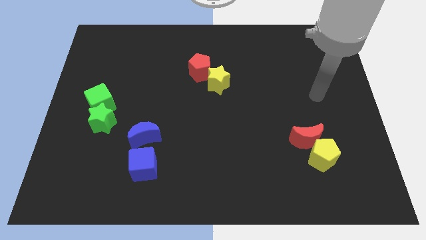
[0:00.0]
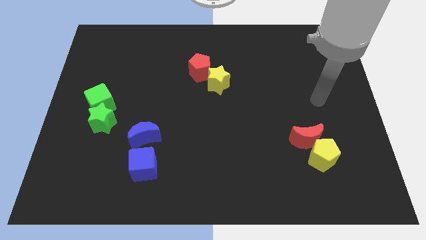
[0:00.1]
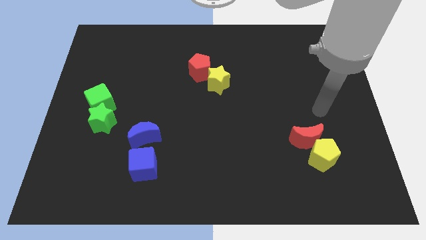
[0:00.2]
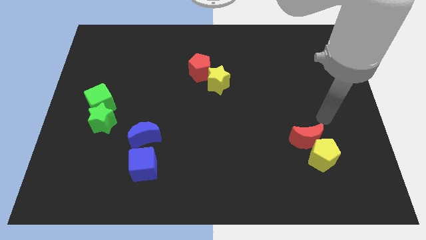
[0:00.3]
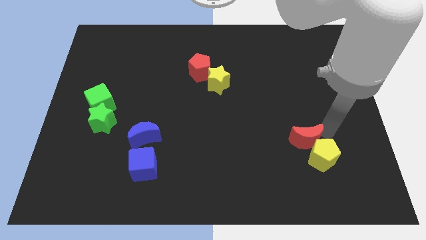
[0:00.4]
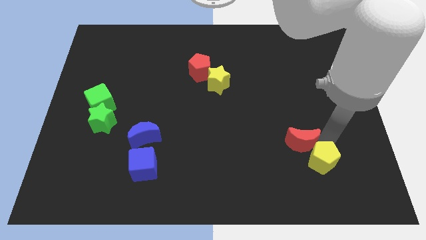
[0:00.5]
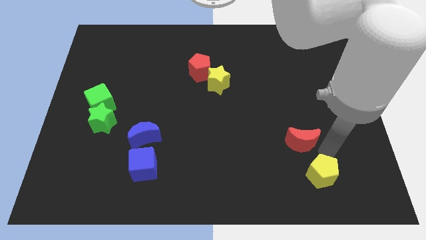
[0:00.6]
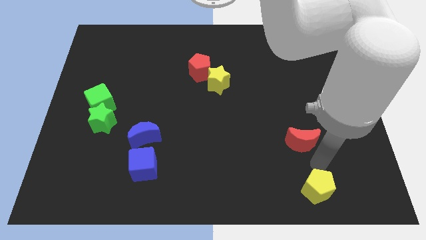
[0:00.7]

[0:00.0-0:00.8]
separate the red moon from the yellow pentagon

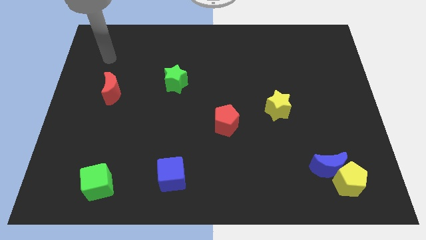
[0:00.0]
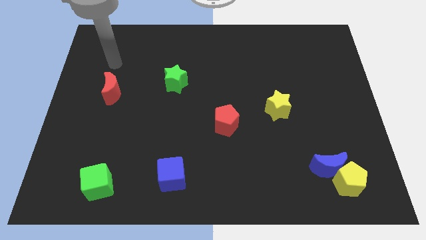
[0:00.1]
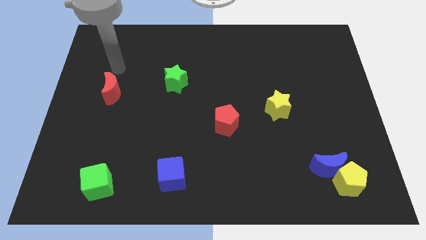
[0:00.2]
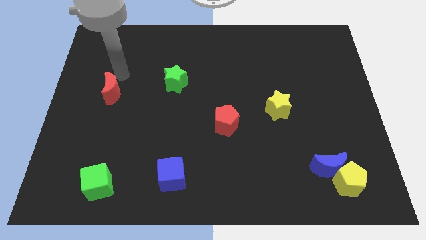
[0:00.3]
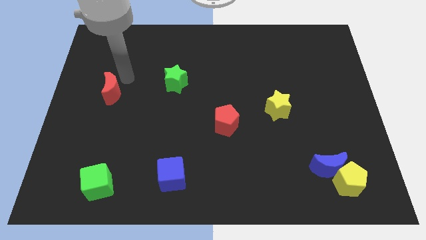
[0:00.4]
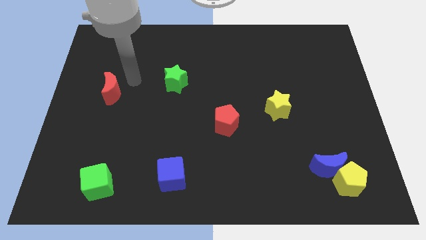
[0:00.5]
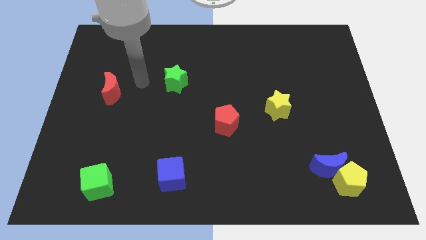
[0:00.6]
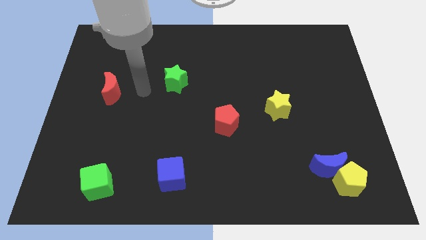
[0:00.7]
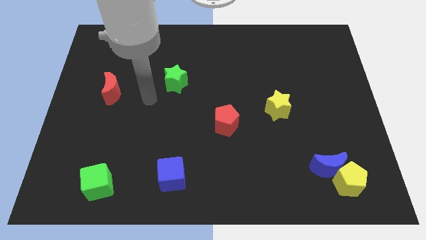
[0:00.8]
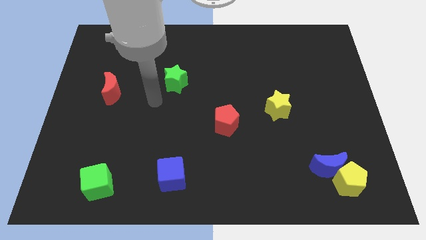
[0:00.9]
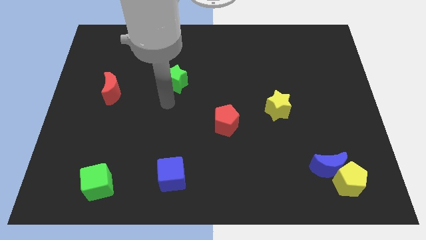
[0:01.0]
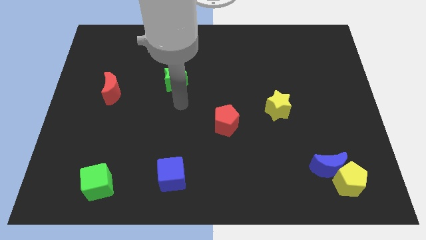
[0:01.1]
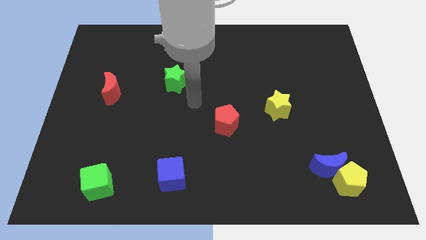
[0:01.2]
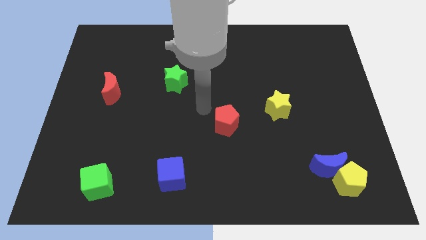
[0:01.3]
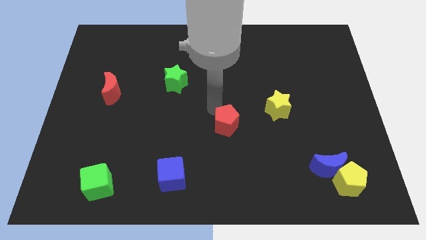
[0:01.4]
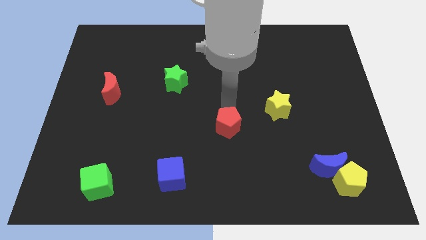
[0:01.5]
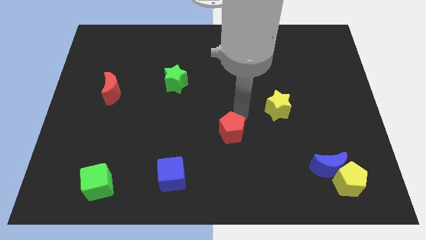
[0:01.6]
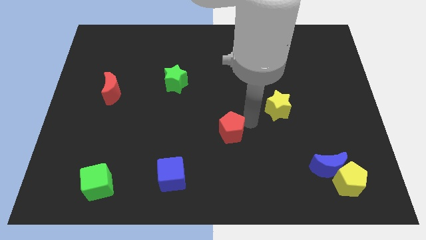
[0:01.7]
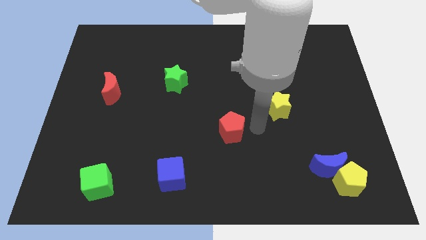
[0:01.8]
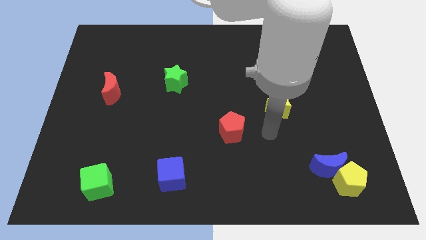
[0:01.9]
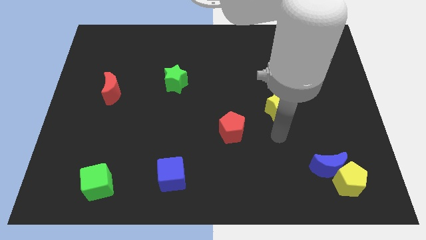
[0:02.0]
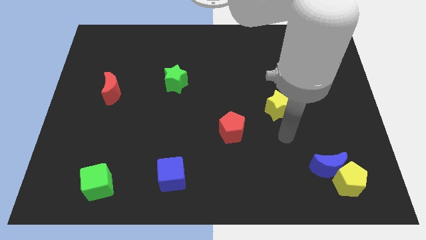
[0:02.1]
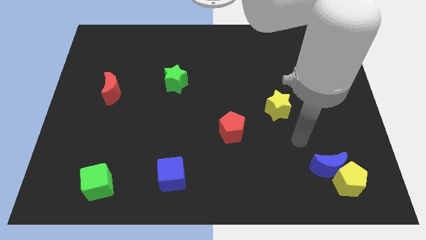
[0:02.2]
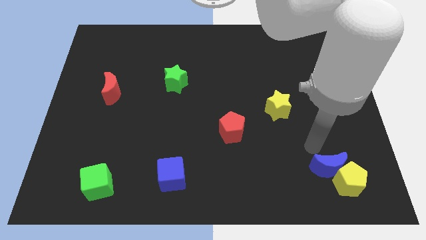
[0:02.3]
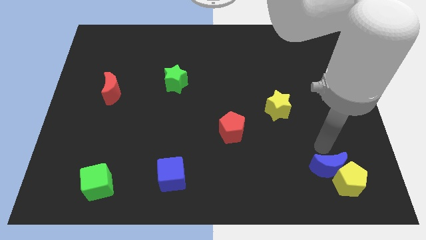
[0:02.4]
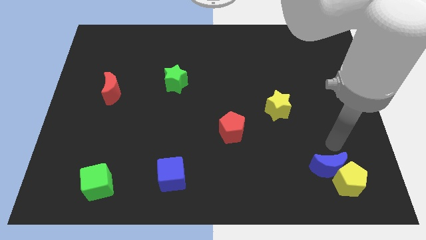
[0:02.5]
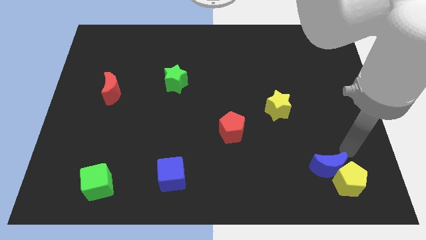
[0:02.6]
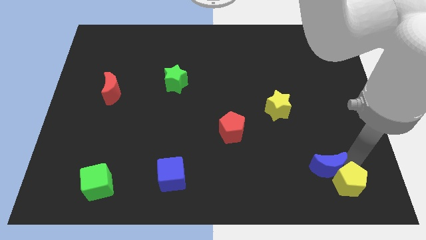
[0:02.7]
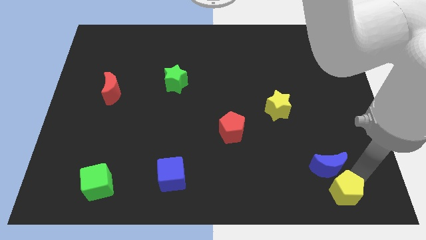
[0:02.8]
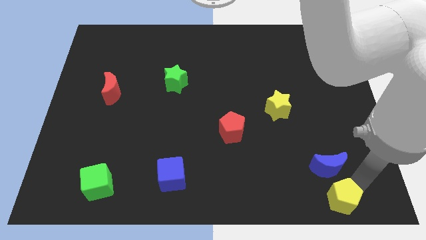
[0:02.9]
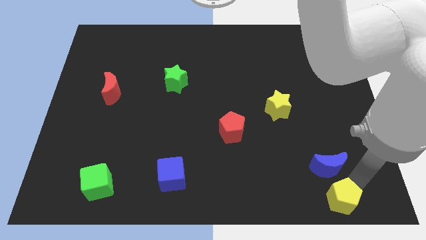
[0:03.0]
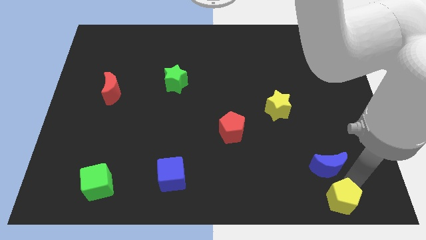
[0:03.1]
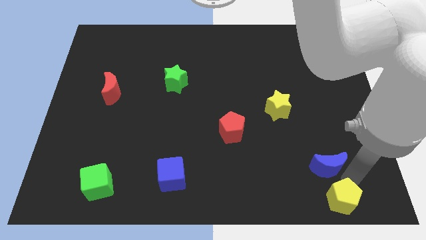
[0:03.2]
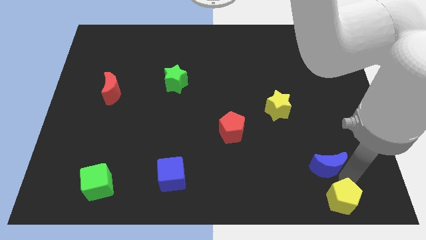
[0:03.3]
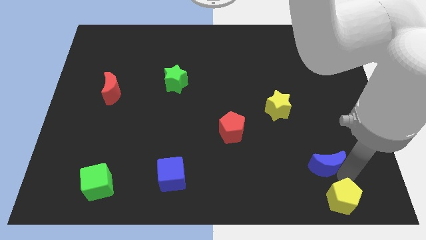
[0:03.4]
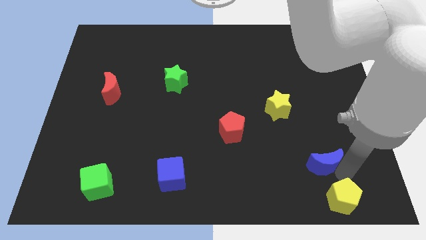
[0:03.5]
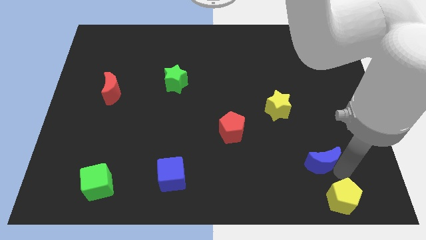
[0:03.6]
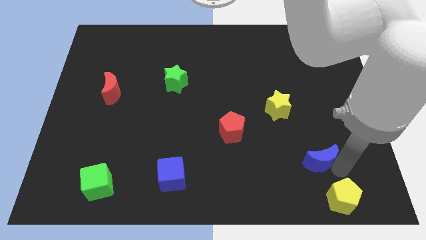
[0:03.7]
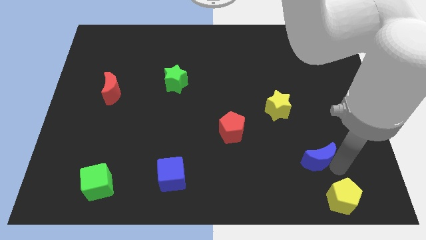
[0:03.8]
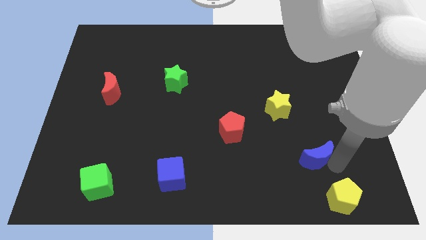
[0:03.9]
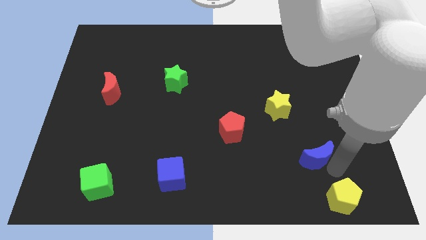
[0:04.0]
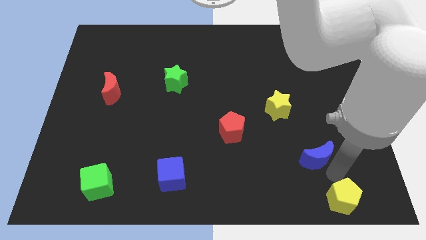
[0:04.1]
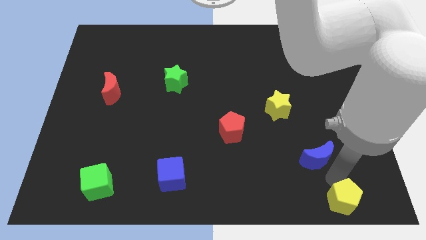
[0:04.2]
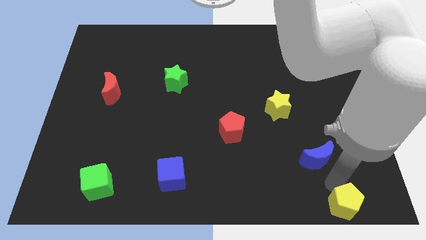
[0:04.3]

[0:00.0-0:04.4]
pull the blue moon apart from the yellow pentagon

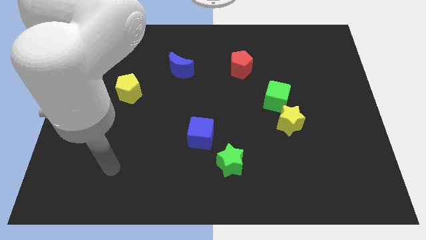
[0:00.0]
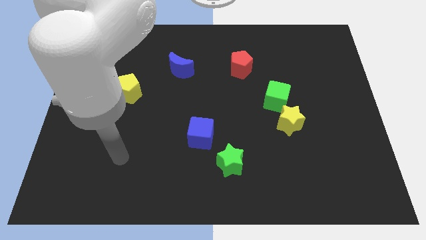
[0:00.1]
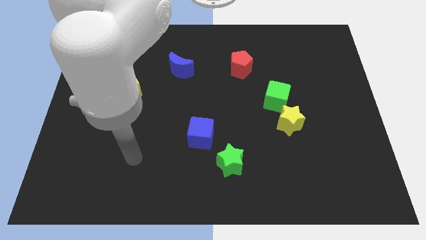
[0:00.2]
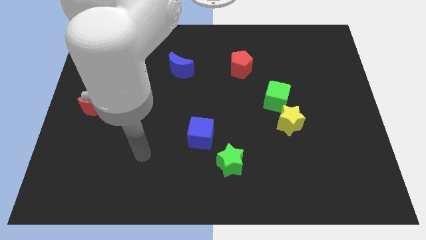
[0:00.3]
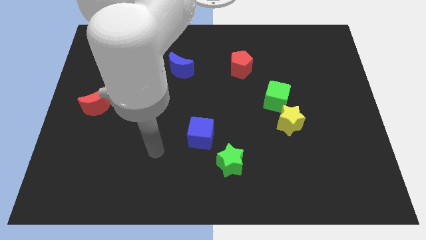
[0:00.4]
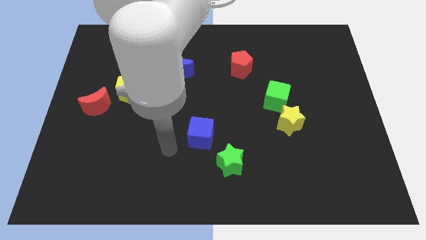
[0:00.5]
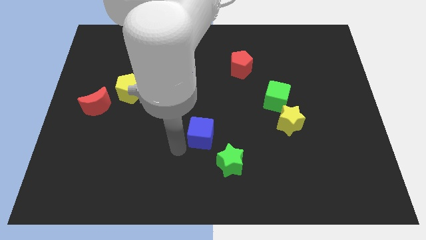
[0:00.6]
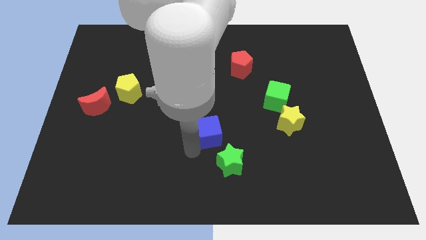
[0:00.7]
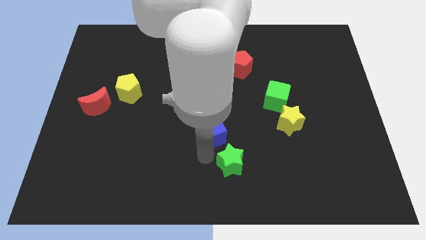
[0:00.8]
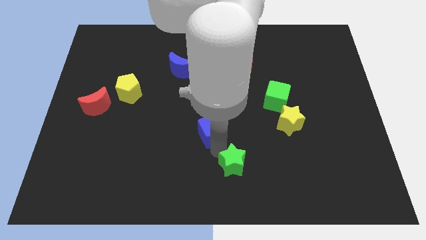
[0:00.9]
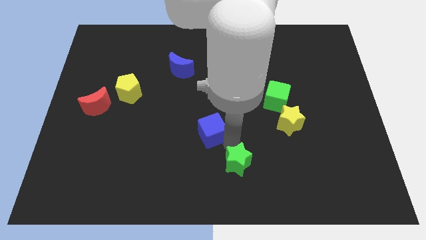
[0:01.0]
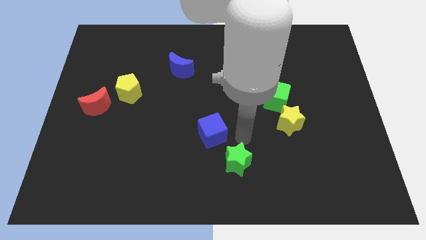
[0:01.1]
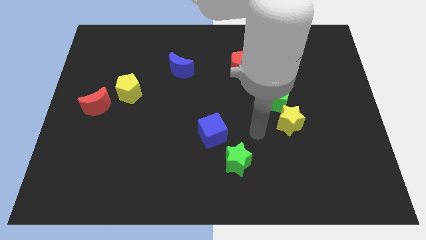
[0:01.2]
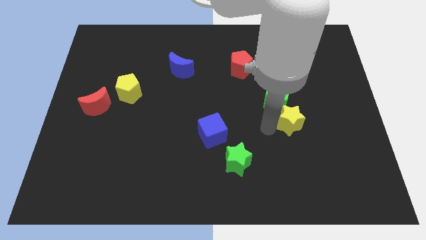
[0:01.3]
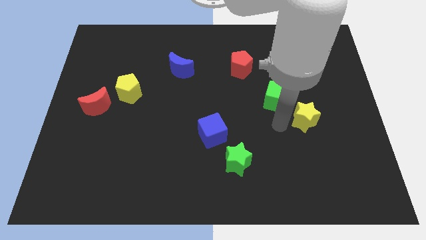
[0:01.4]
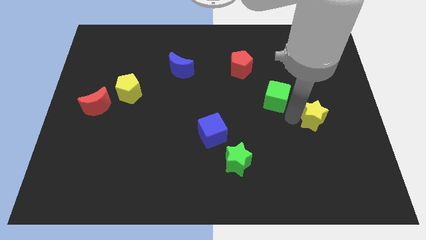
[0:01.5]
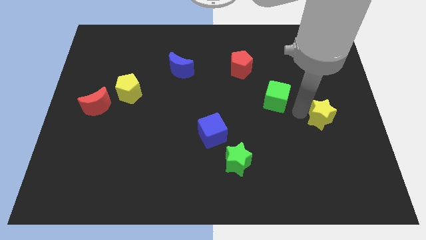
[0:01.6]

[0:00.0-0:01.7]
pull the green cube apart from the yellow star

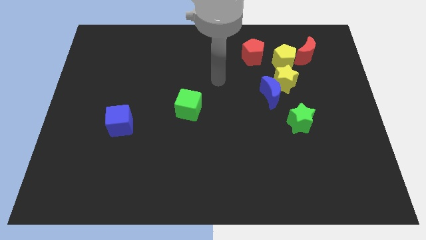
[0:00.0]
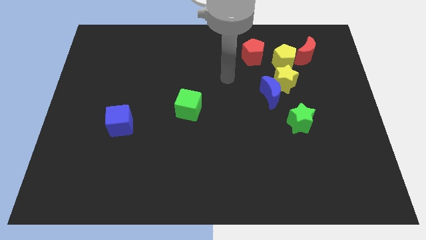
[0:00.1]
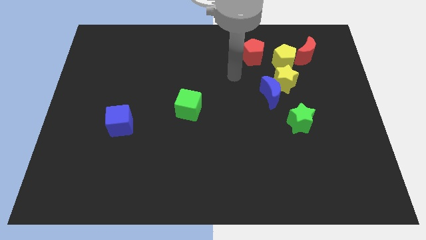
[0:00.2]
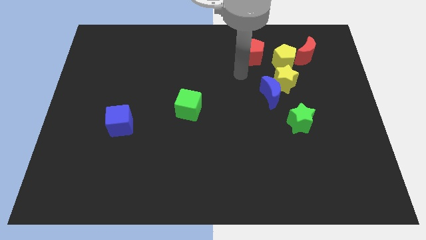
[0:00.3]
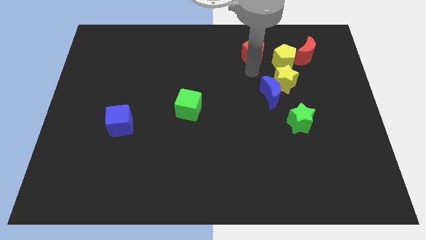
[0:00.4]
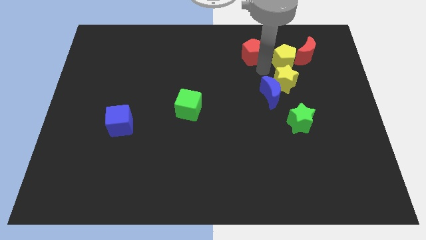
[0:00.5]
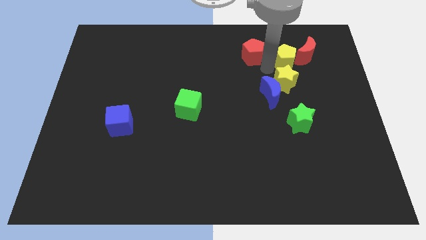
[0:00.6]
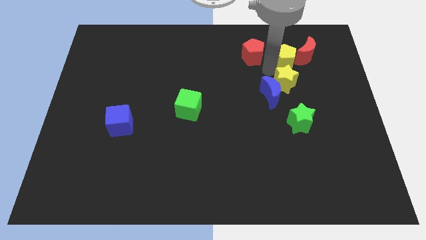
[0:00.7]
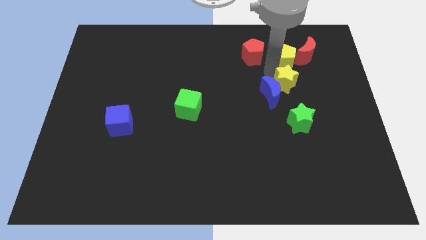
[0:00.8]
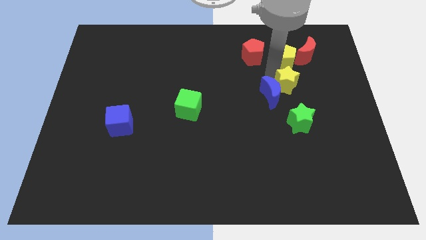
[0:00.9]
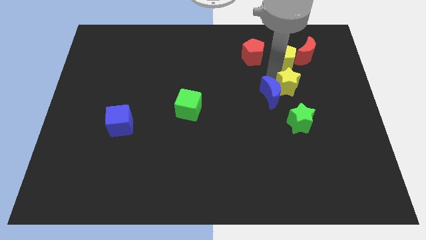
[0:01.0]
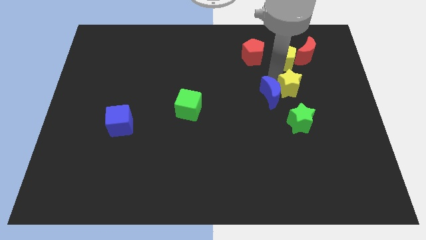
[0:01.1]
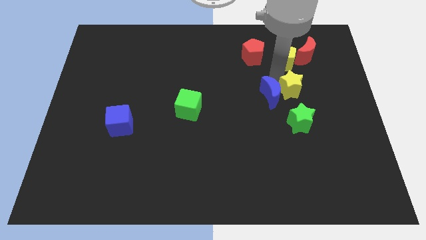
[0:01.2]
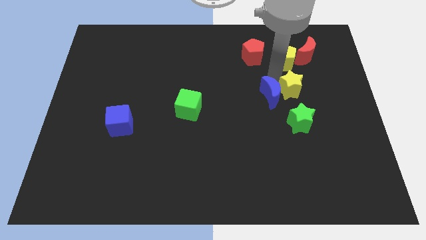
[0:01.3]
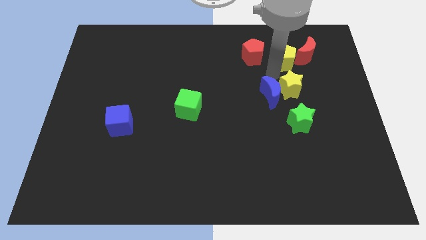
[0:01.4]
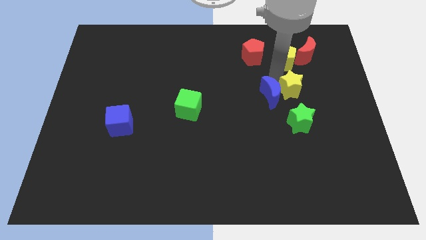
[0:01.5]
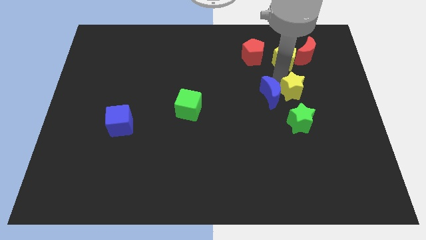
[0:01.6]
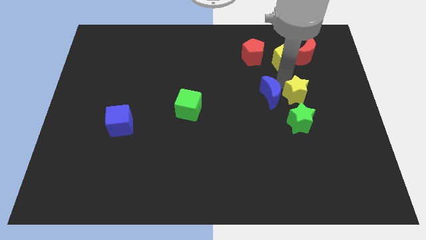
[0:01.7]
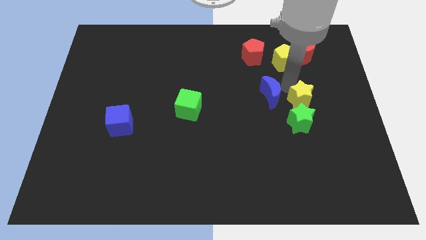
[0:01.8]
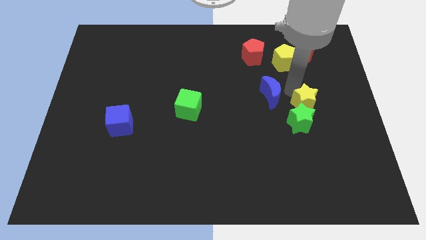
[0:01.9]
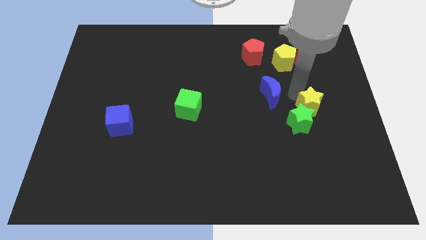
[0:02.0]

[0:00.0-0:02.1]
move the yellow star away from the blue moon and yellow pentagon

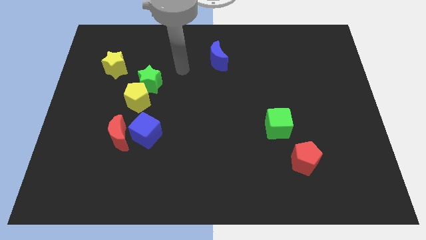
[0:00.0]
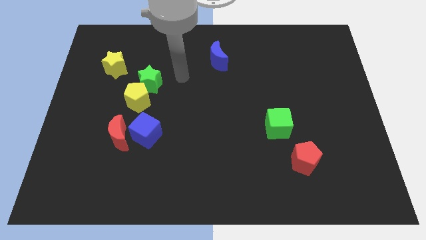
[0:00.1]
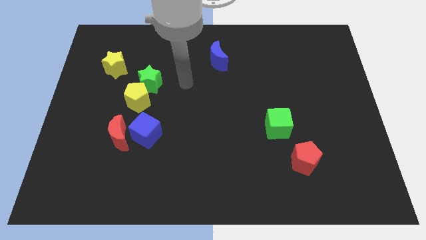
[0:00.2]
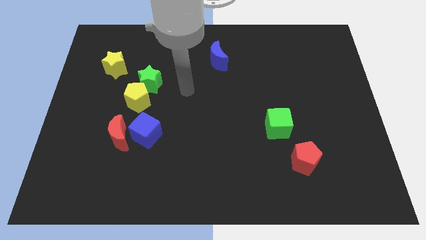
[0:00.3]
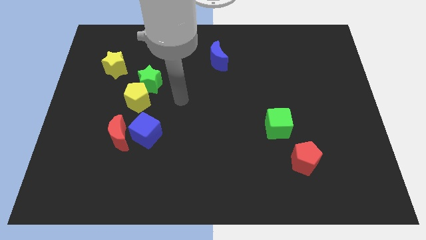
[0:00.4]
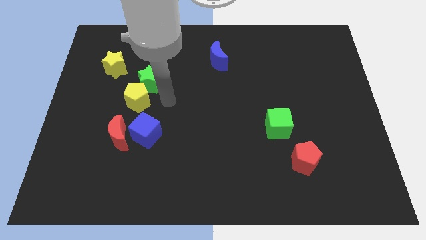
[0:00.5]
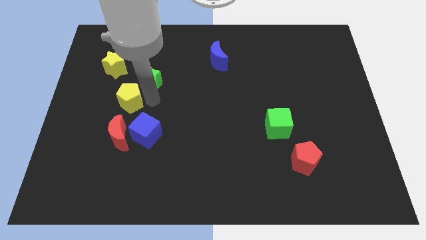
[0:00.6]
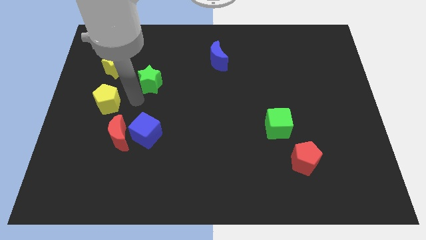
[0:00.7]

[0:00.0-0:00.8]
pull the green star apart from the yellow pentagon
